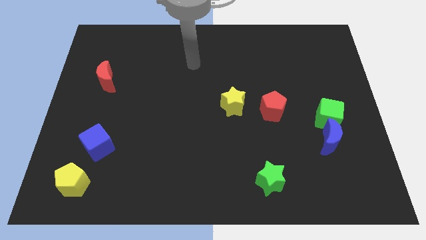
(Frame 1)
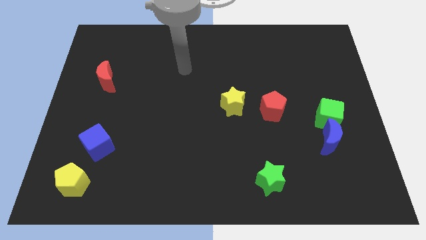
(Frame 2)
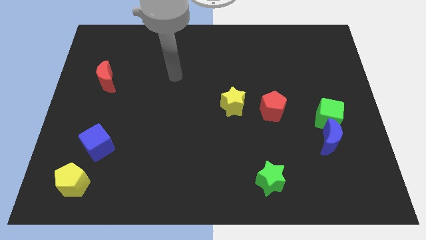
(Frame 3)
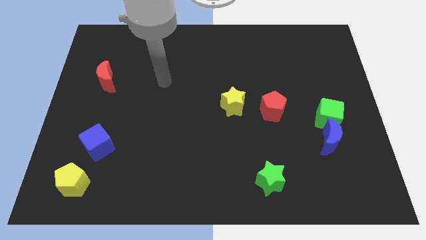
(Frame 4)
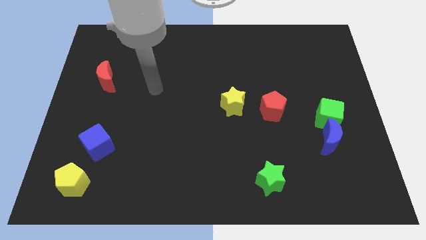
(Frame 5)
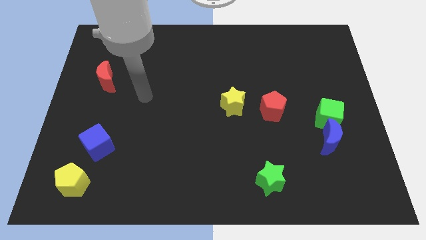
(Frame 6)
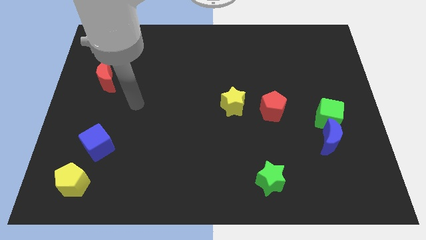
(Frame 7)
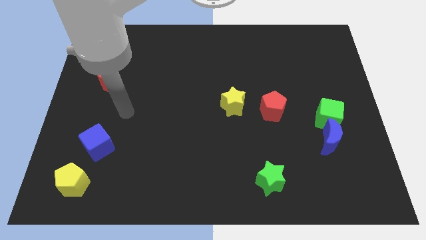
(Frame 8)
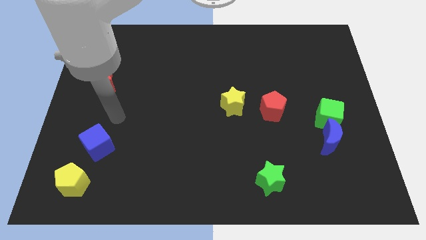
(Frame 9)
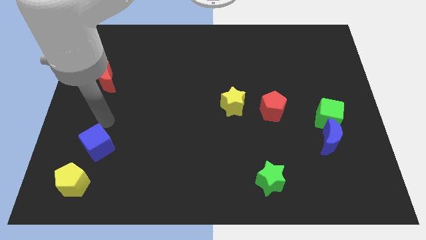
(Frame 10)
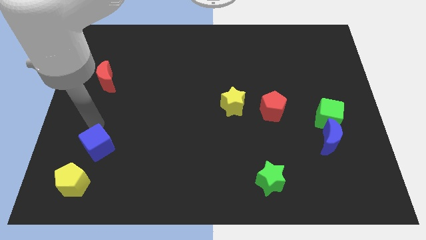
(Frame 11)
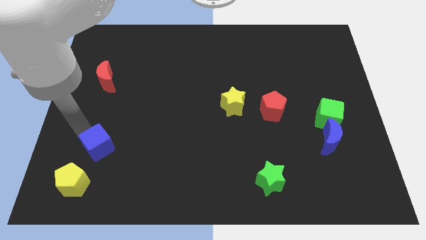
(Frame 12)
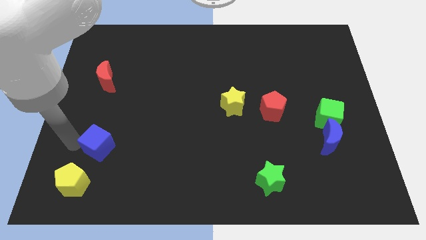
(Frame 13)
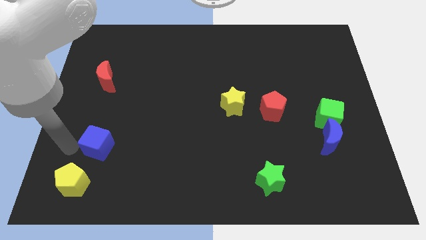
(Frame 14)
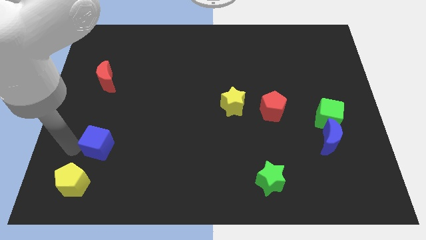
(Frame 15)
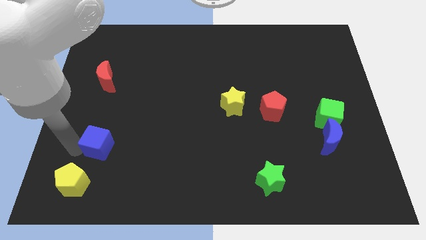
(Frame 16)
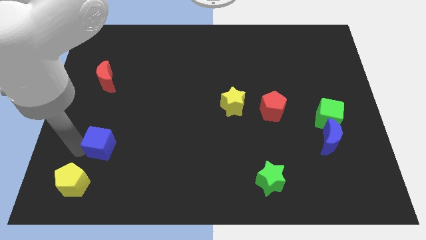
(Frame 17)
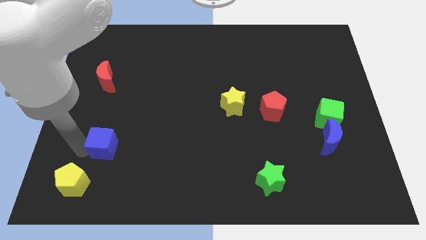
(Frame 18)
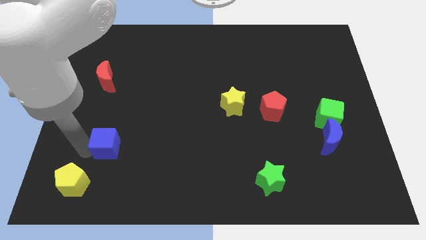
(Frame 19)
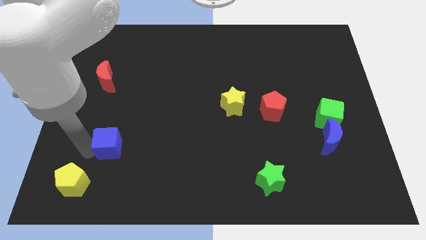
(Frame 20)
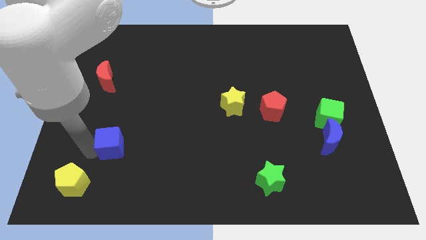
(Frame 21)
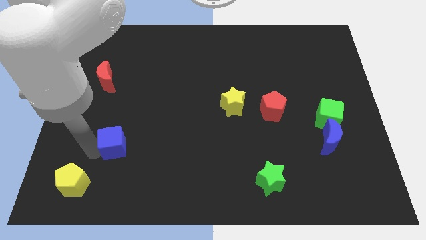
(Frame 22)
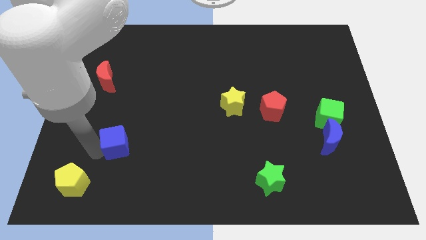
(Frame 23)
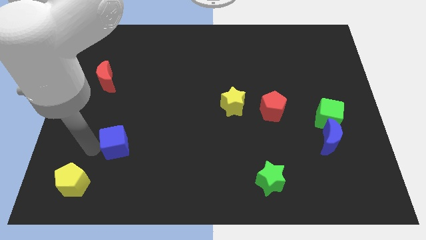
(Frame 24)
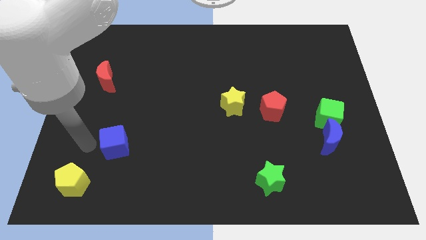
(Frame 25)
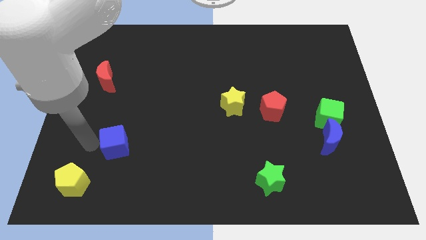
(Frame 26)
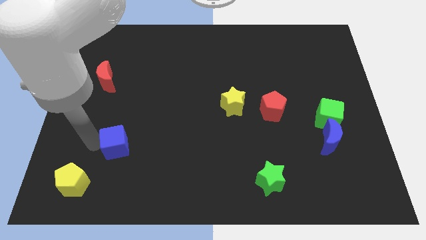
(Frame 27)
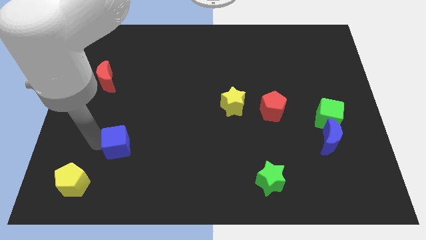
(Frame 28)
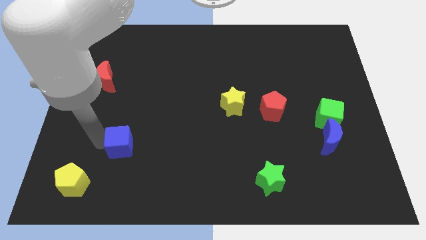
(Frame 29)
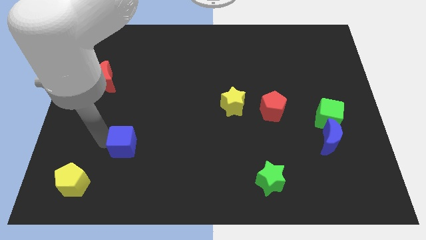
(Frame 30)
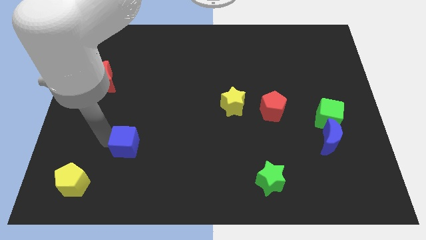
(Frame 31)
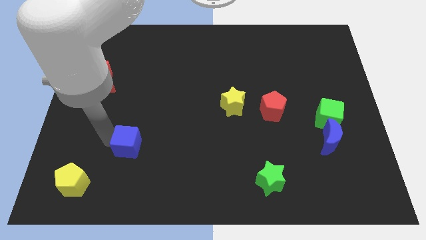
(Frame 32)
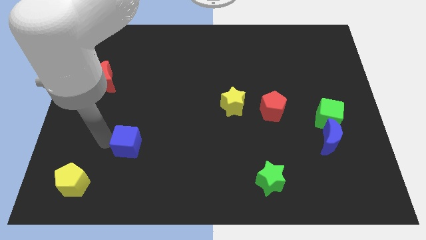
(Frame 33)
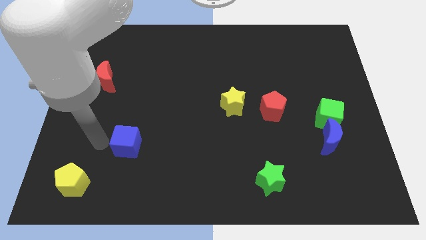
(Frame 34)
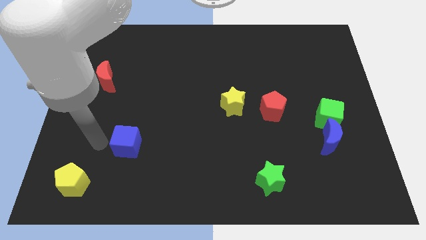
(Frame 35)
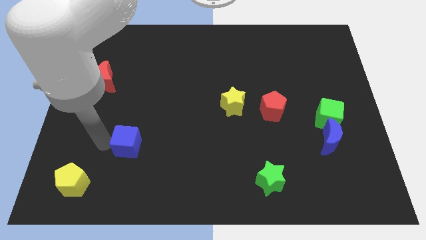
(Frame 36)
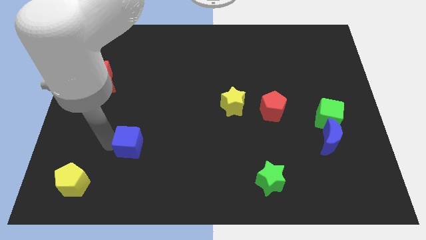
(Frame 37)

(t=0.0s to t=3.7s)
move the blue cube right somewhat

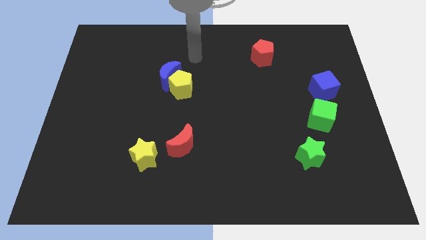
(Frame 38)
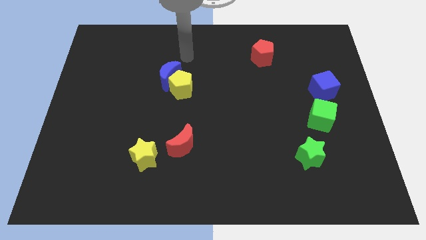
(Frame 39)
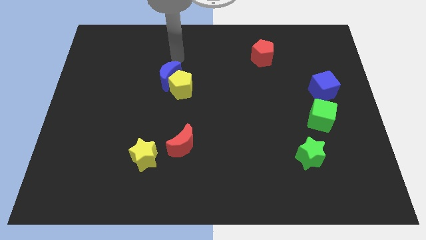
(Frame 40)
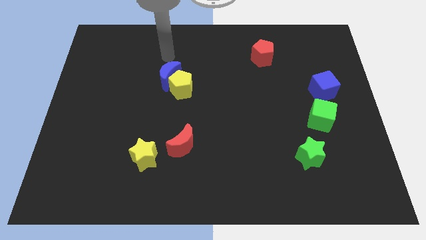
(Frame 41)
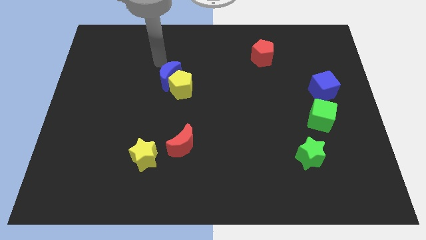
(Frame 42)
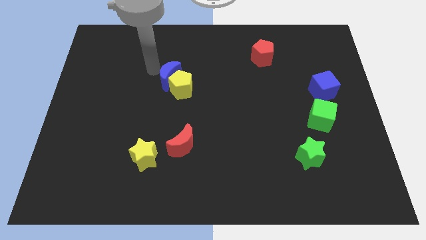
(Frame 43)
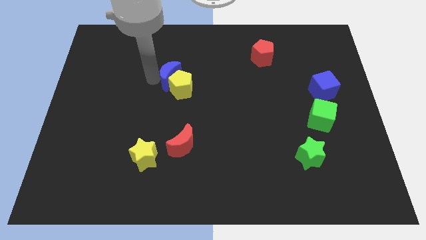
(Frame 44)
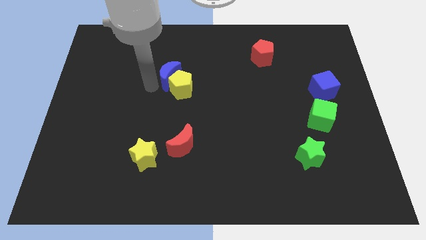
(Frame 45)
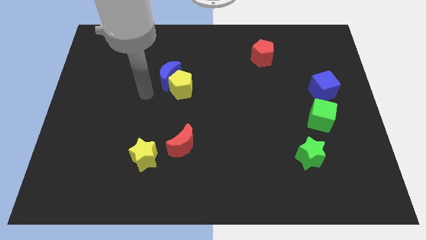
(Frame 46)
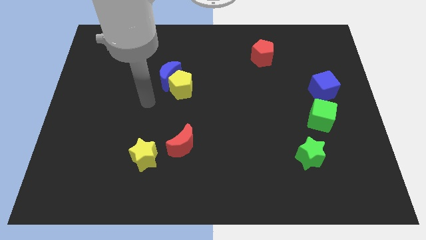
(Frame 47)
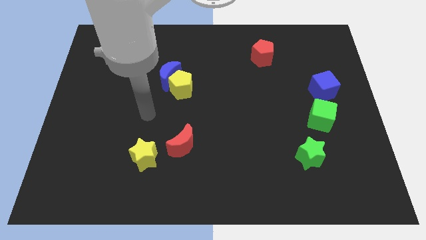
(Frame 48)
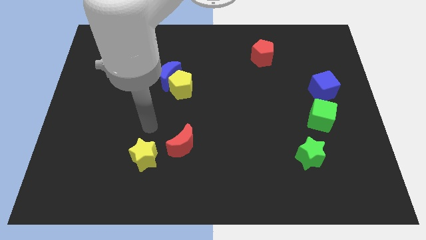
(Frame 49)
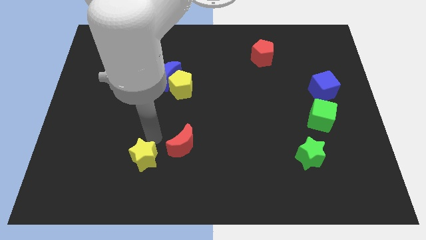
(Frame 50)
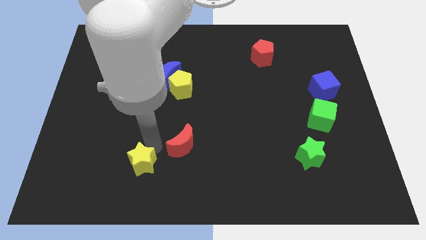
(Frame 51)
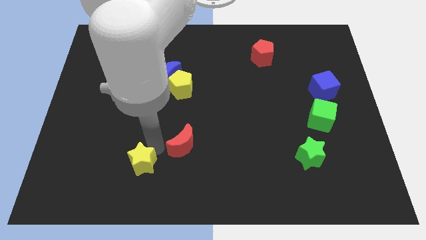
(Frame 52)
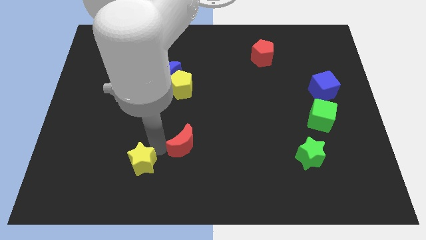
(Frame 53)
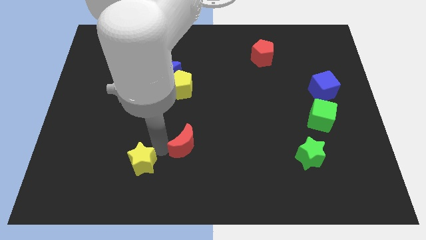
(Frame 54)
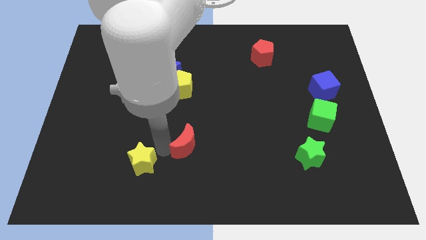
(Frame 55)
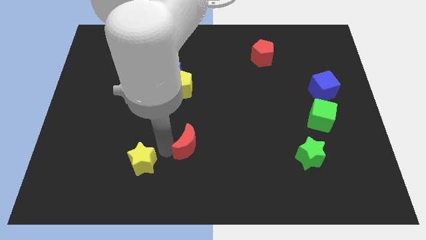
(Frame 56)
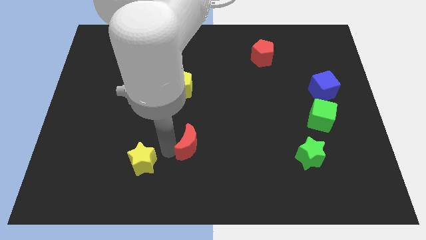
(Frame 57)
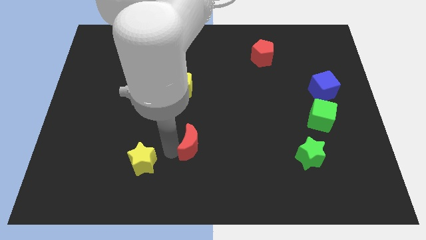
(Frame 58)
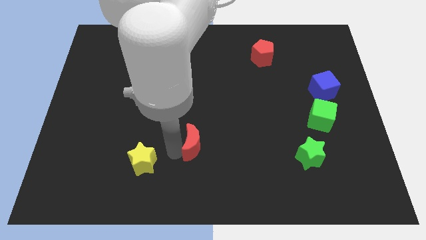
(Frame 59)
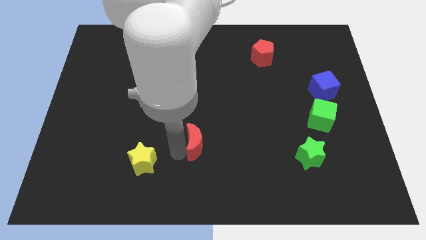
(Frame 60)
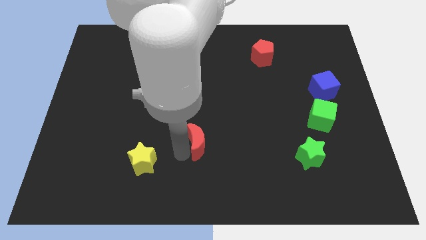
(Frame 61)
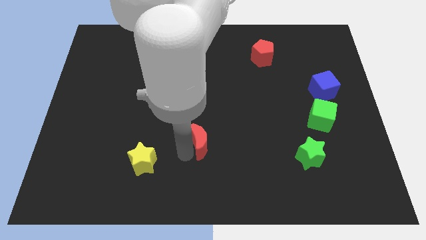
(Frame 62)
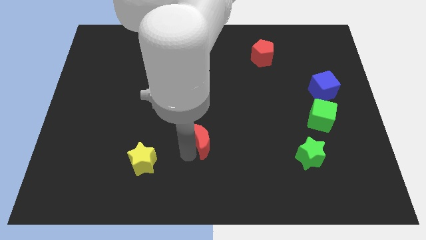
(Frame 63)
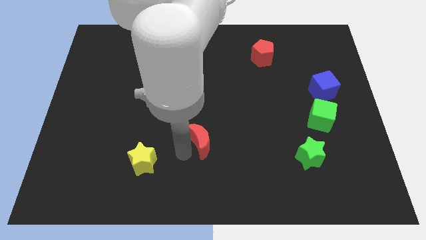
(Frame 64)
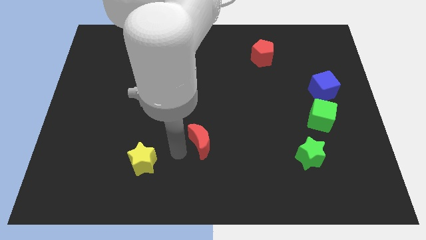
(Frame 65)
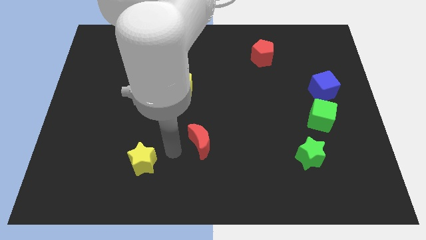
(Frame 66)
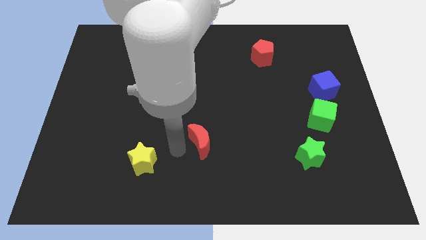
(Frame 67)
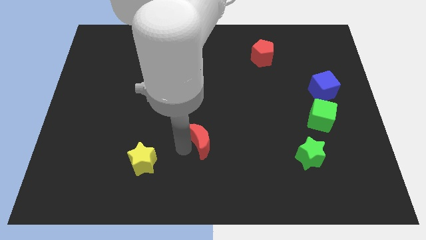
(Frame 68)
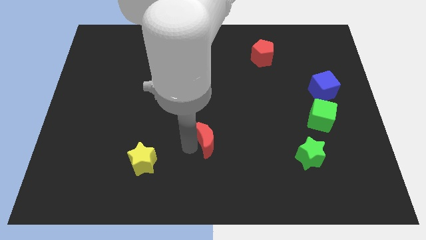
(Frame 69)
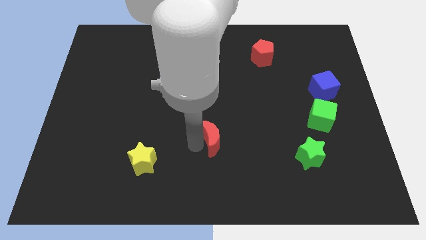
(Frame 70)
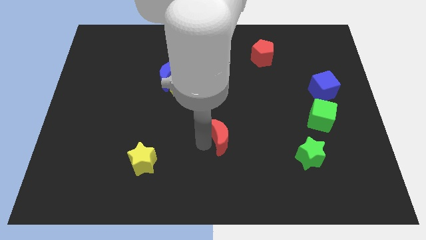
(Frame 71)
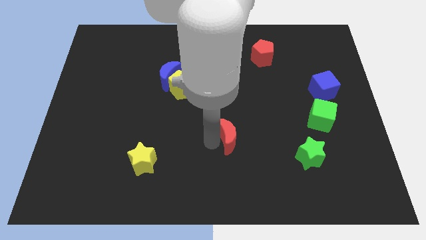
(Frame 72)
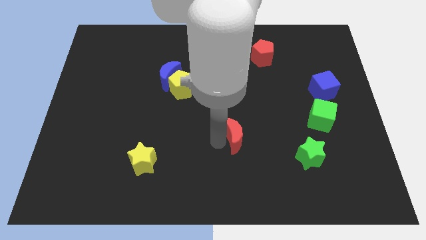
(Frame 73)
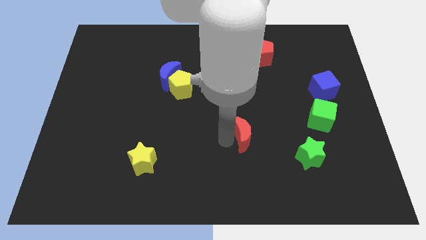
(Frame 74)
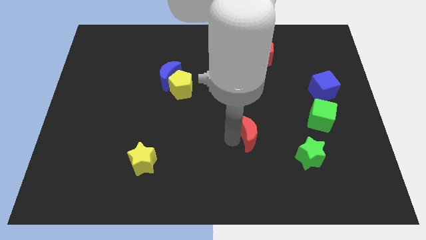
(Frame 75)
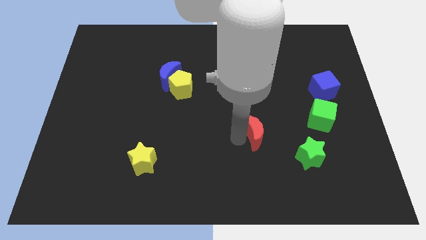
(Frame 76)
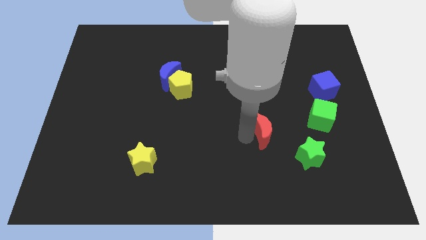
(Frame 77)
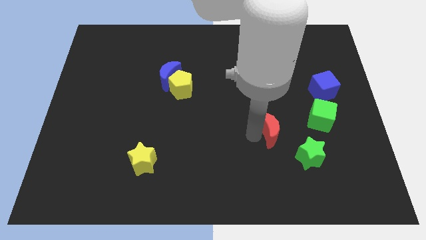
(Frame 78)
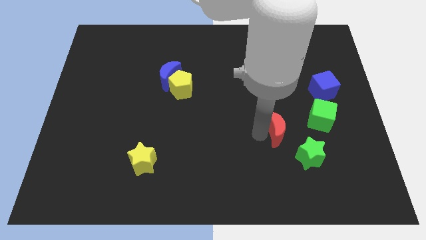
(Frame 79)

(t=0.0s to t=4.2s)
move the red moon right

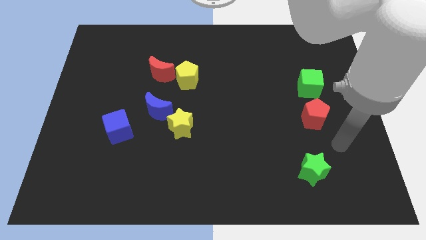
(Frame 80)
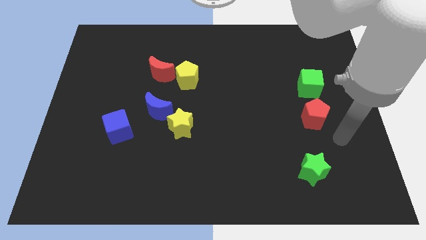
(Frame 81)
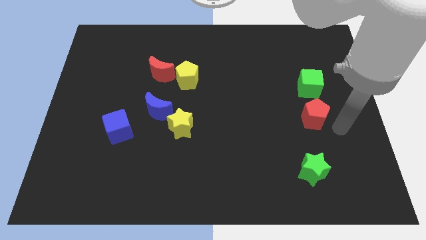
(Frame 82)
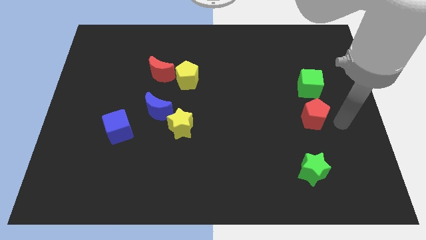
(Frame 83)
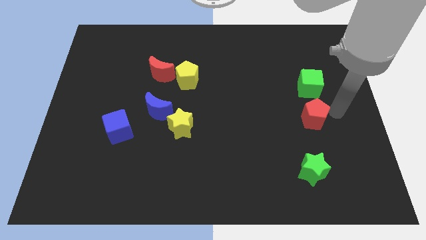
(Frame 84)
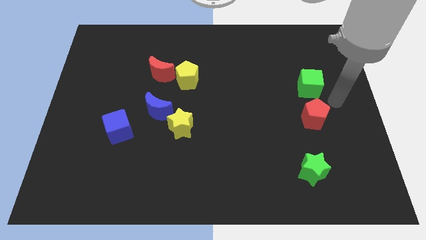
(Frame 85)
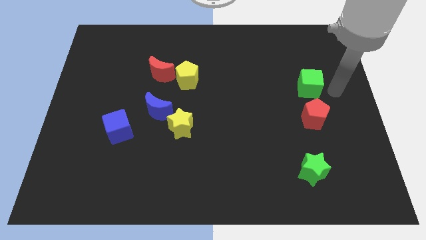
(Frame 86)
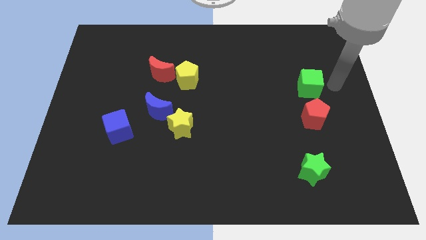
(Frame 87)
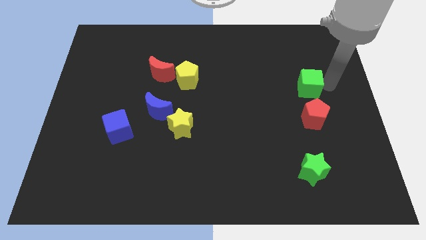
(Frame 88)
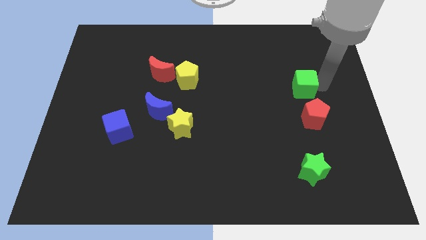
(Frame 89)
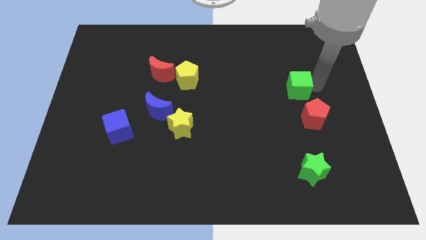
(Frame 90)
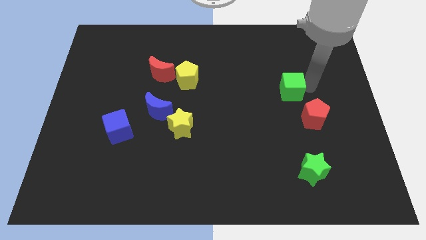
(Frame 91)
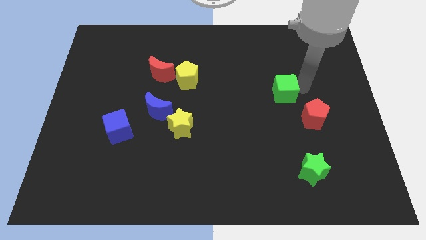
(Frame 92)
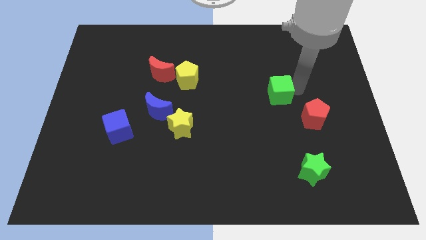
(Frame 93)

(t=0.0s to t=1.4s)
push the green cube to the left a little
